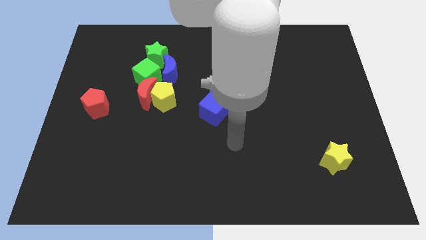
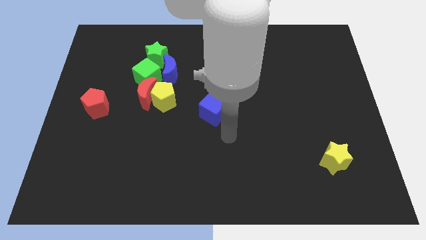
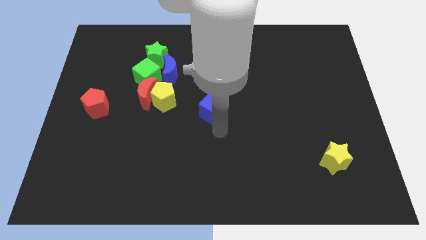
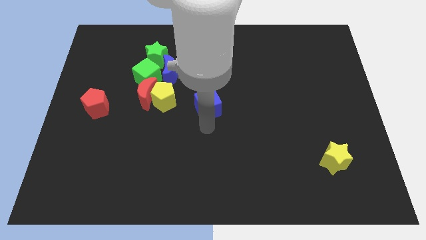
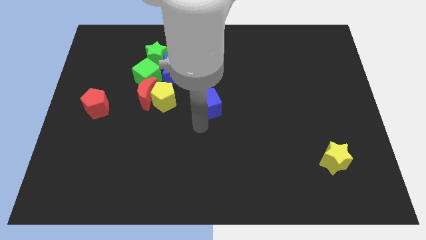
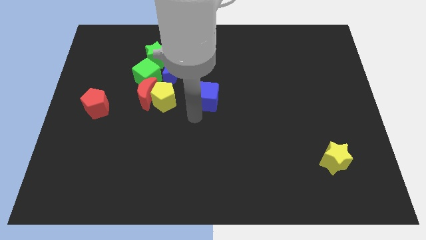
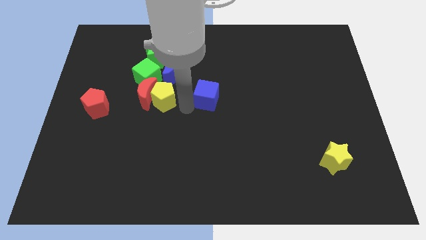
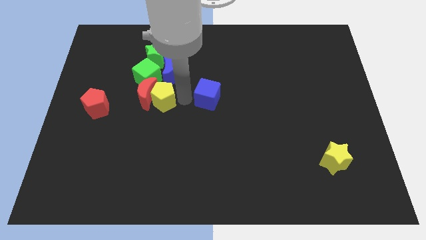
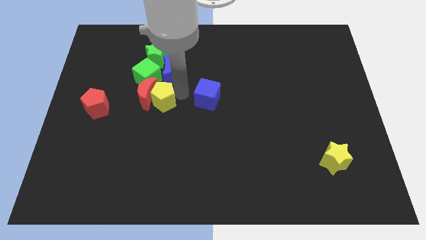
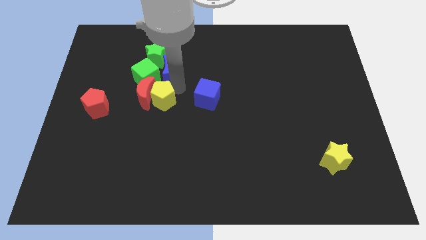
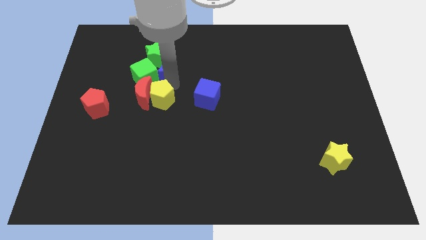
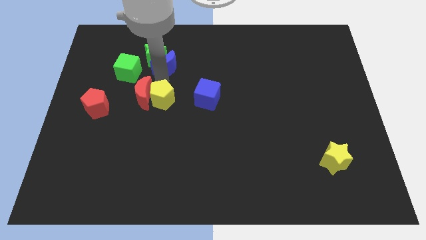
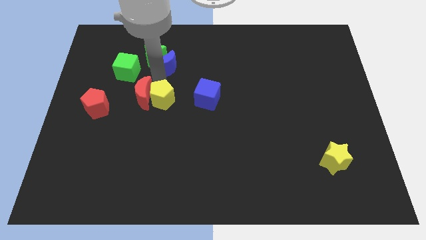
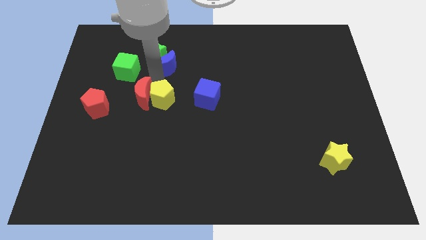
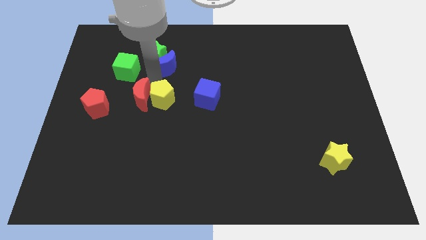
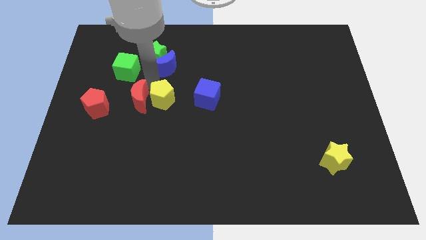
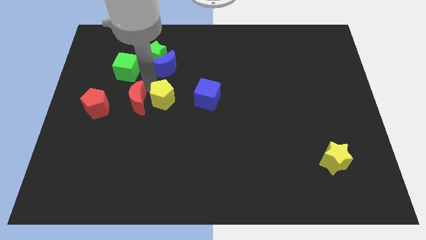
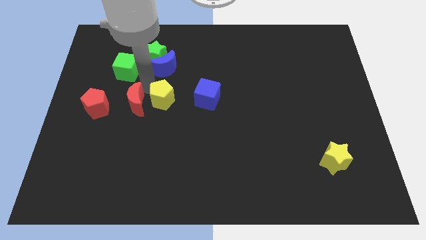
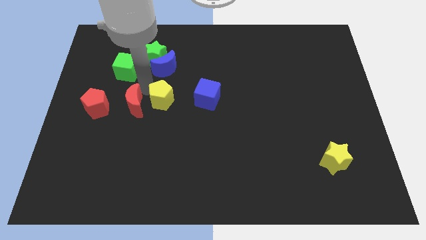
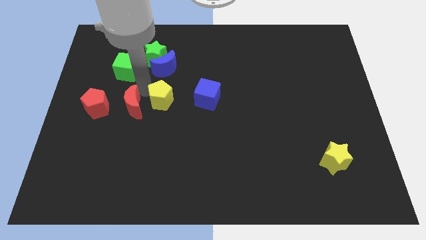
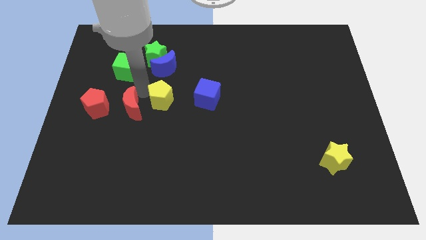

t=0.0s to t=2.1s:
move the red moon away from the yellow pentagon, green cube, and blue moon

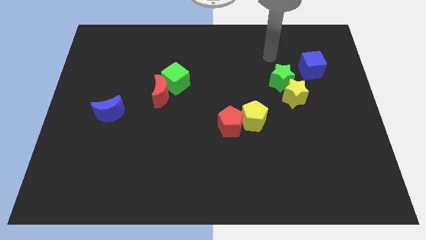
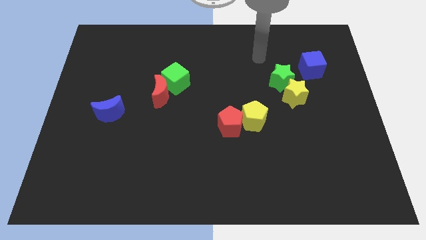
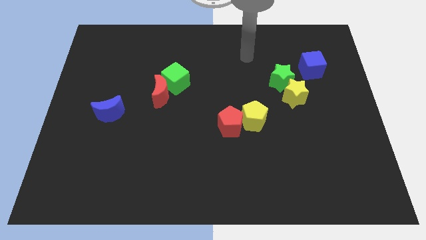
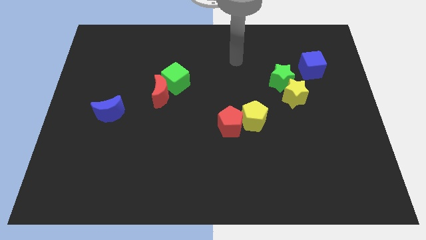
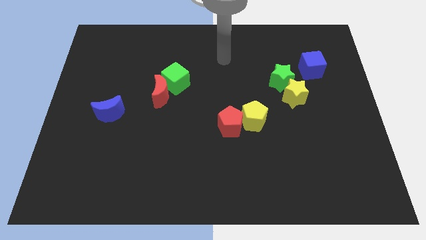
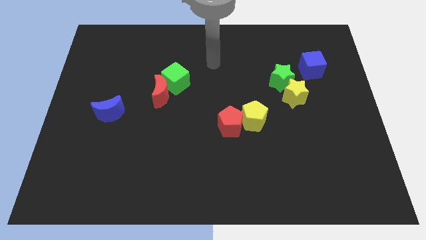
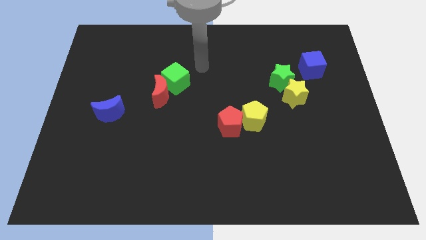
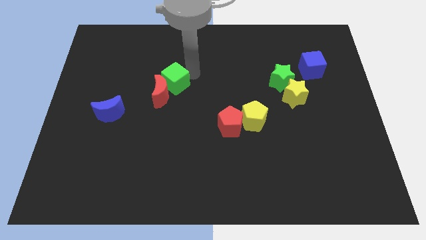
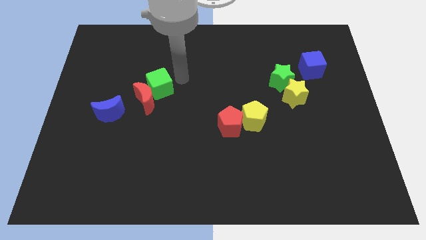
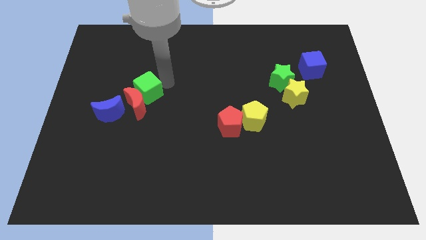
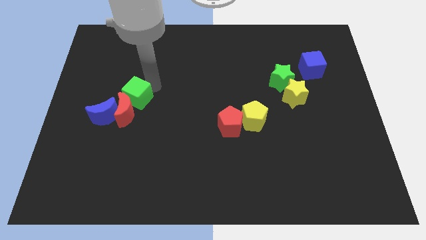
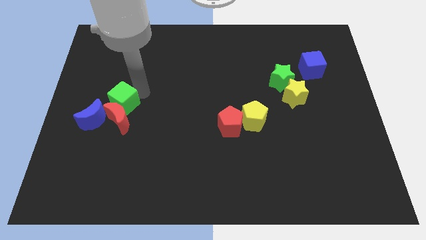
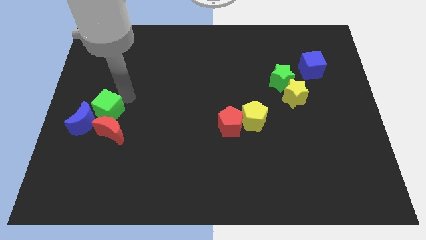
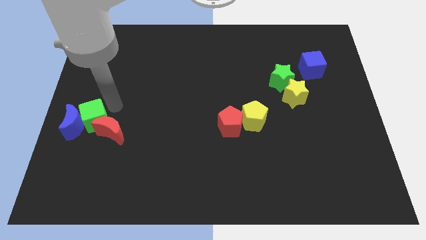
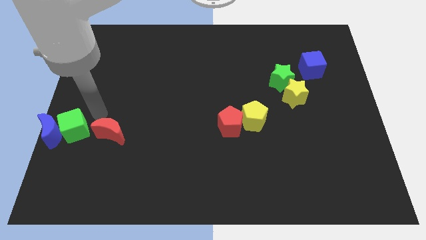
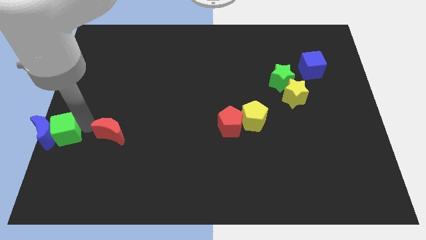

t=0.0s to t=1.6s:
separate the red moon from the green cube

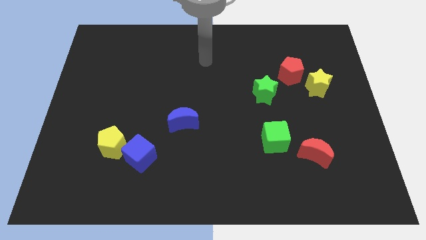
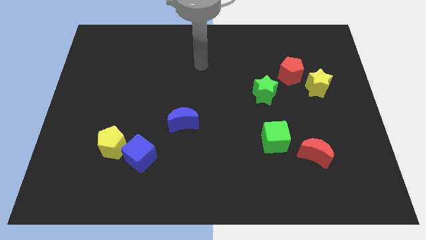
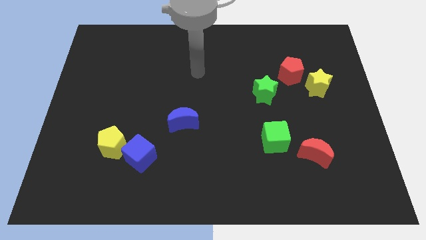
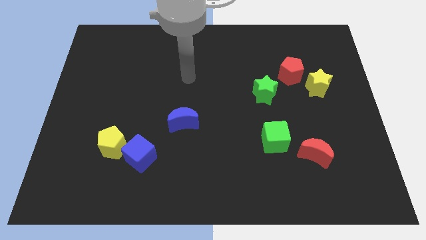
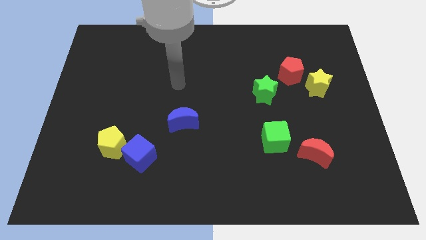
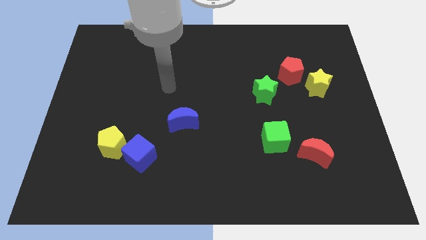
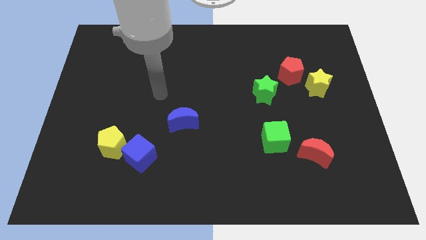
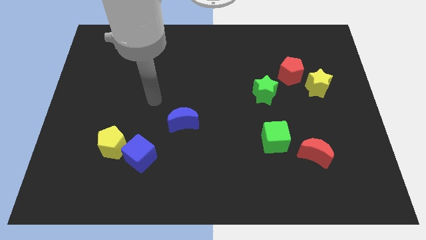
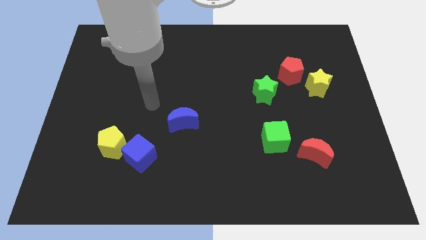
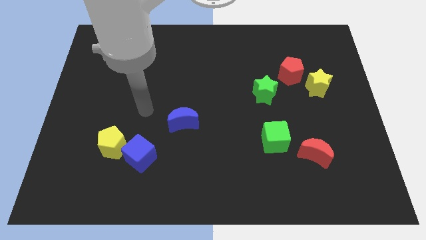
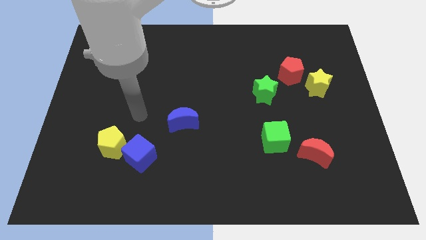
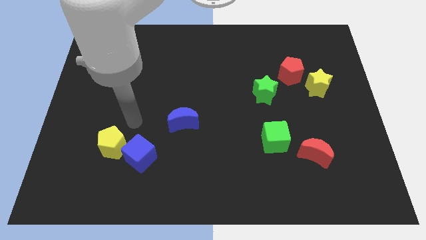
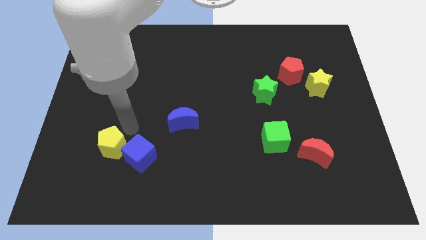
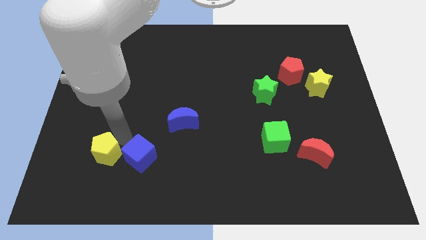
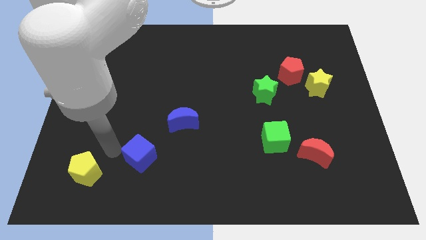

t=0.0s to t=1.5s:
move the blue cube away from the yellow pentagon

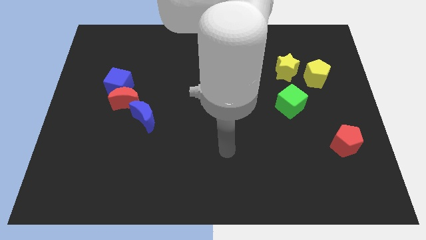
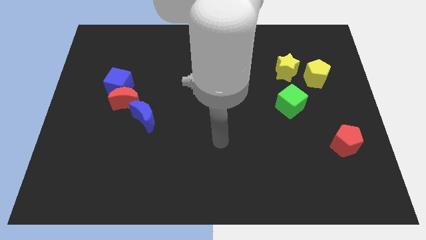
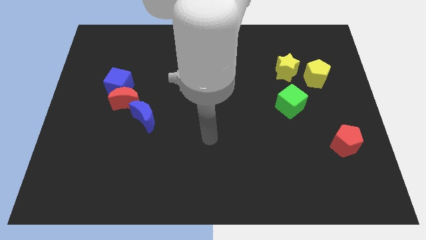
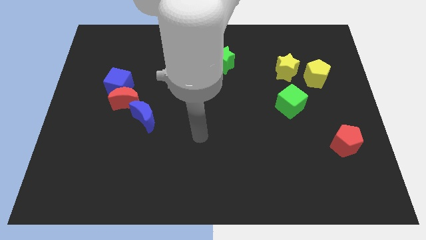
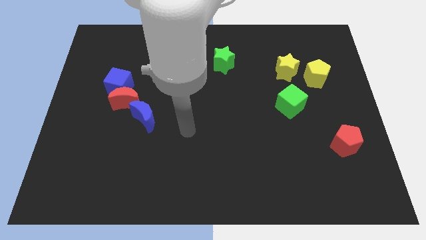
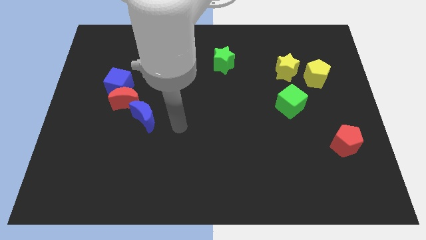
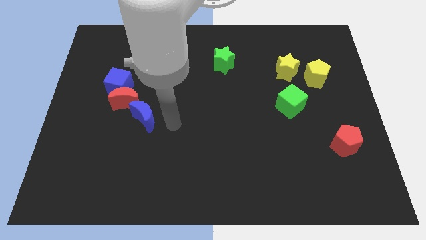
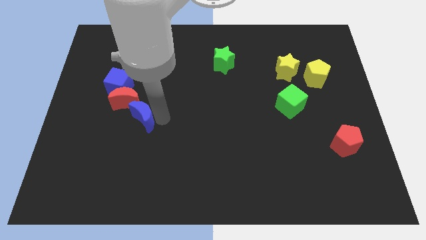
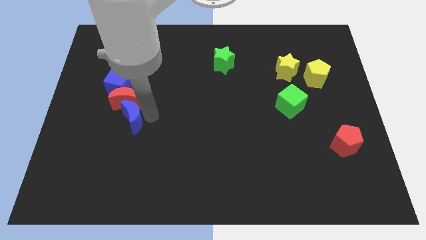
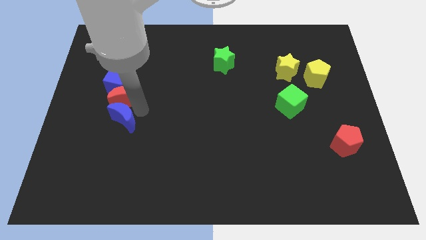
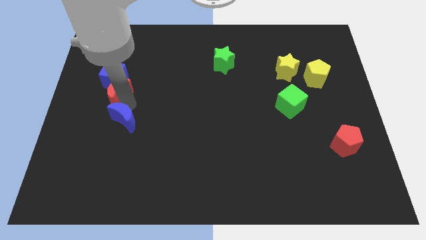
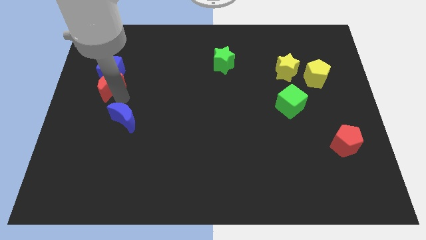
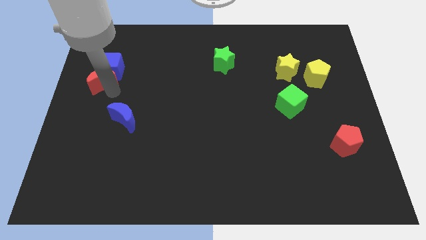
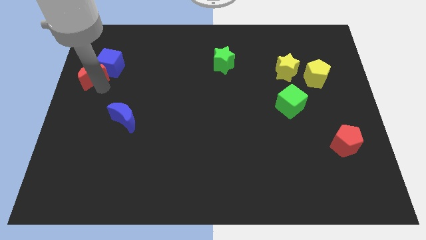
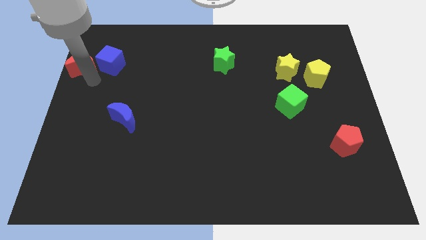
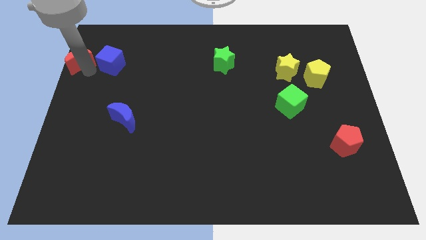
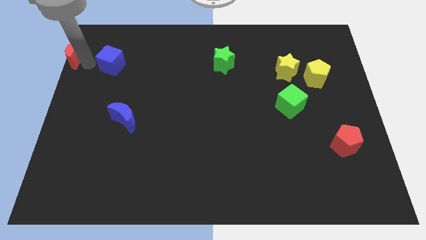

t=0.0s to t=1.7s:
separate the blue cube from the red moon

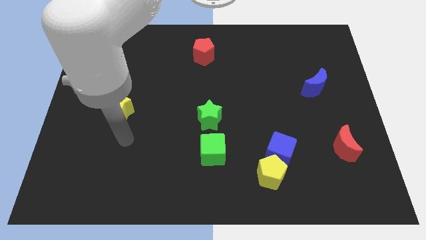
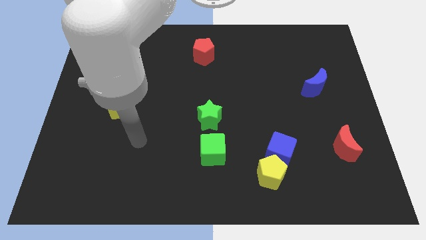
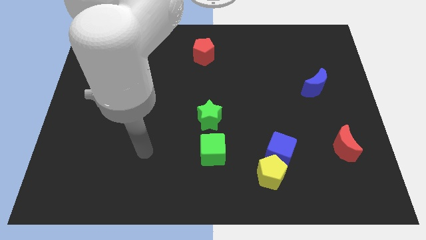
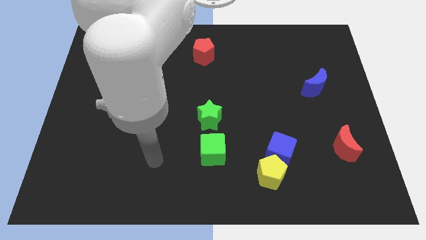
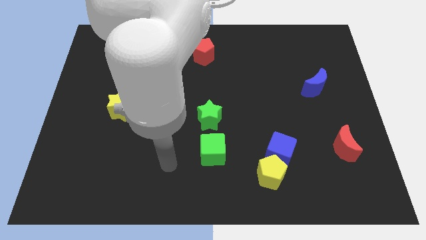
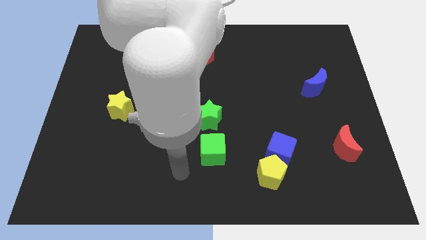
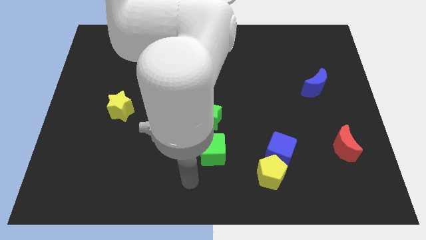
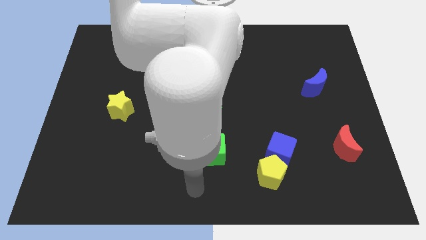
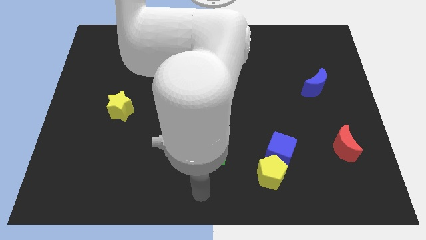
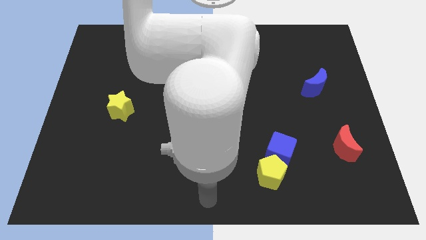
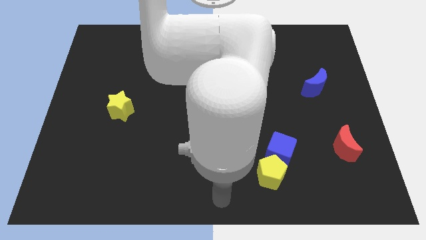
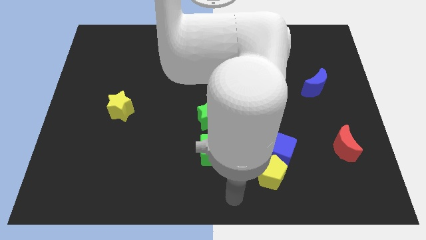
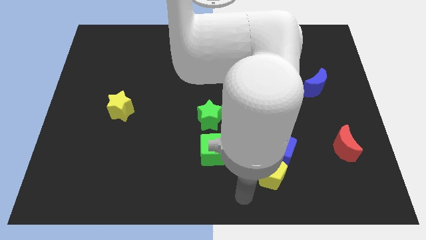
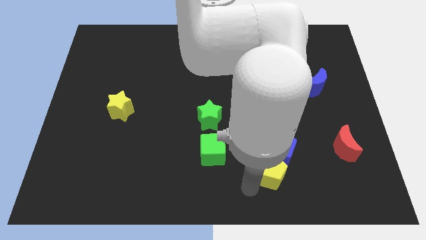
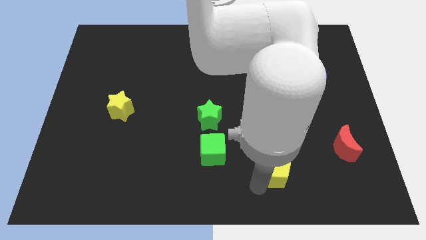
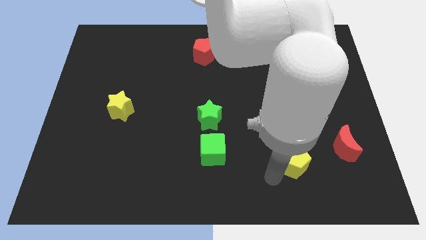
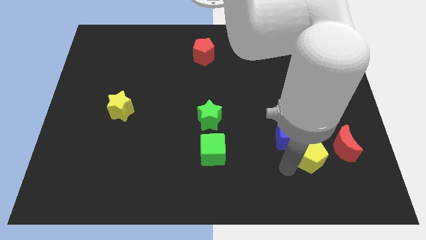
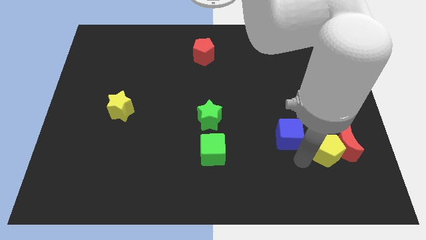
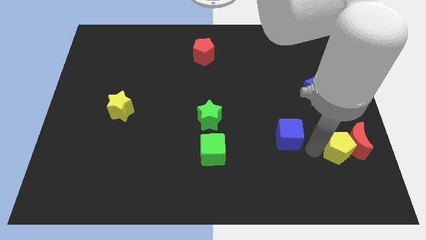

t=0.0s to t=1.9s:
pull the blue cube apart from the yellow pentagon

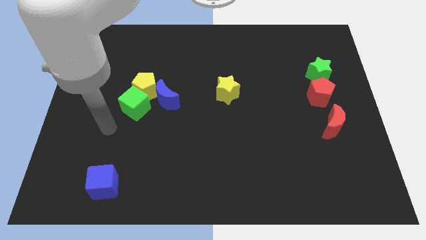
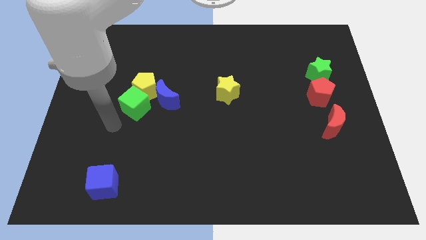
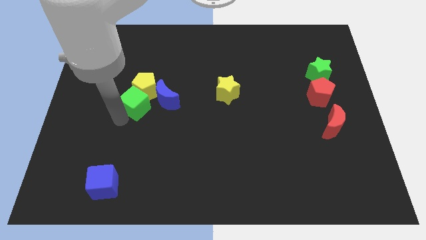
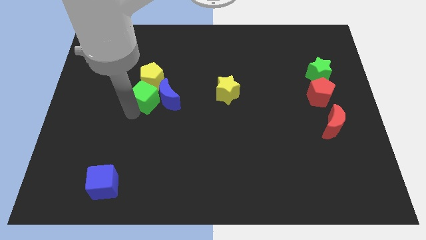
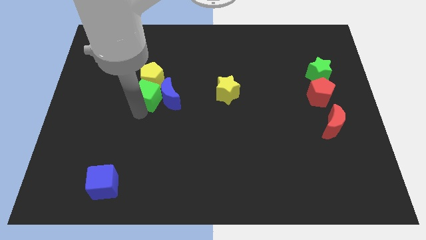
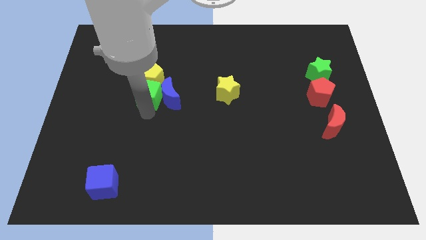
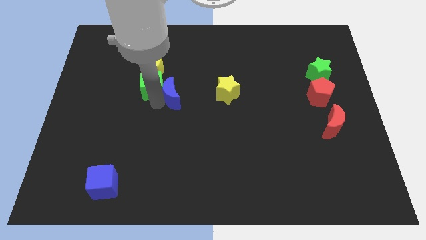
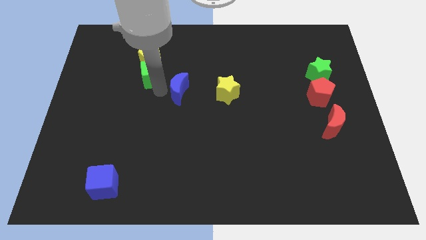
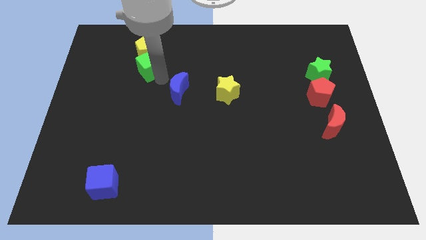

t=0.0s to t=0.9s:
separate the yellow pentagon from the green cube and blue moon
